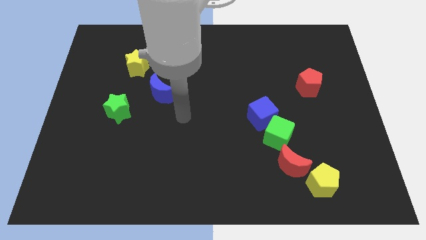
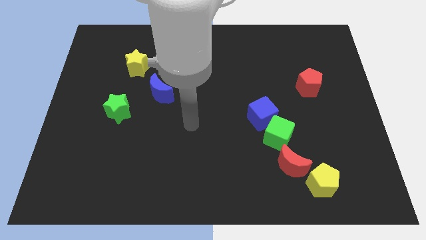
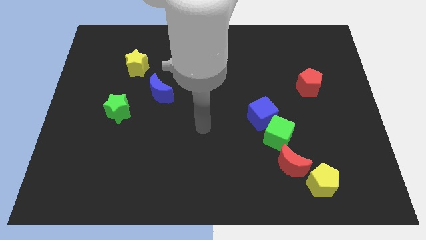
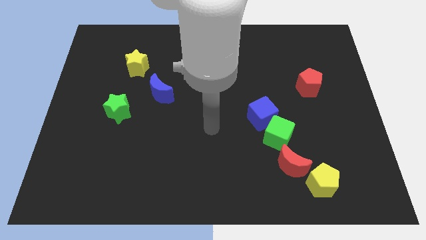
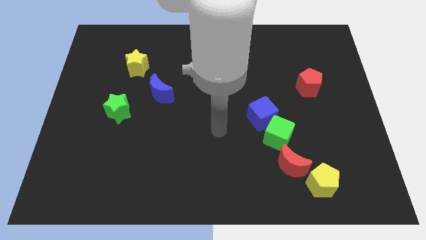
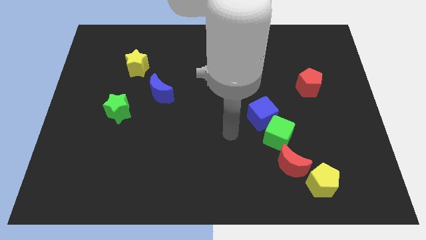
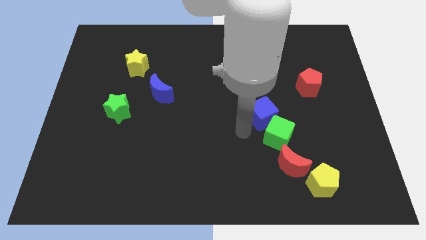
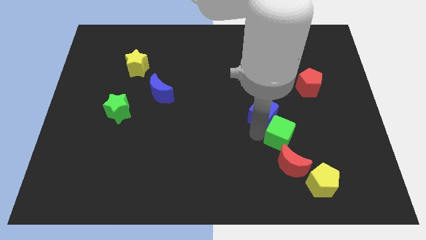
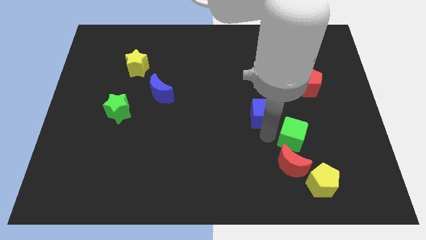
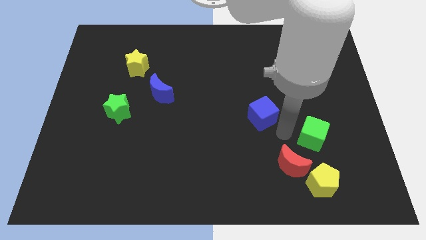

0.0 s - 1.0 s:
separate the blue cube from the green cube

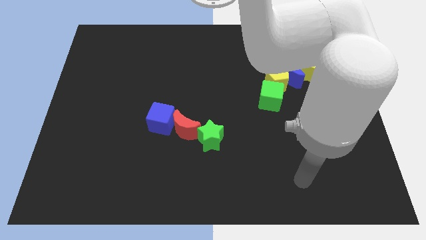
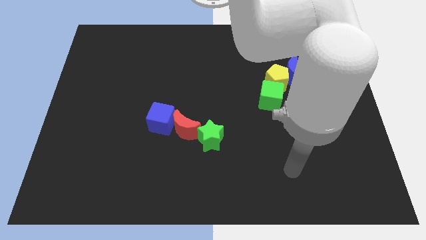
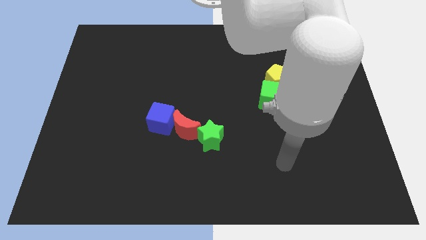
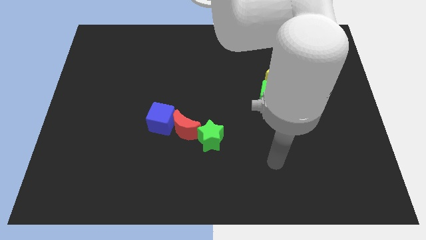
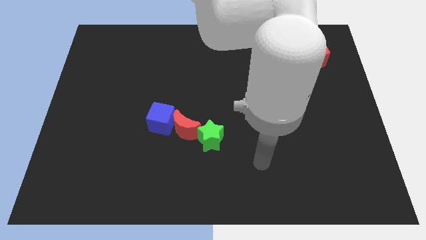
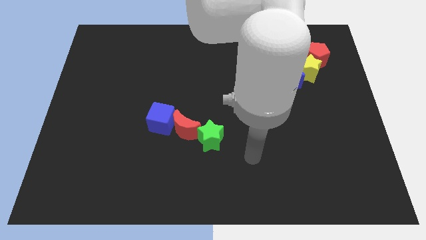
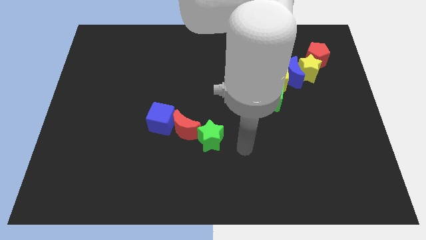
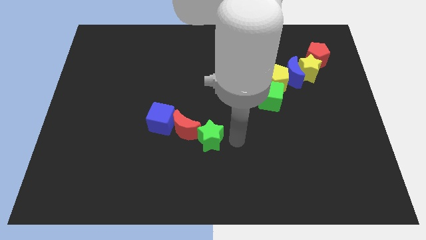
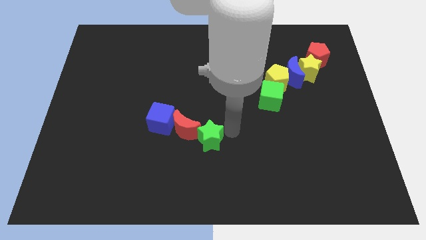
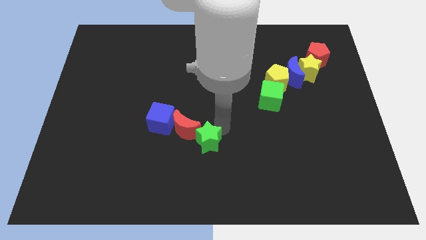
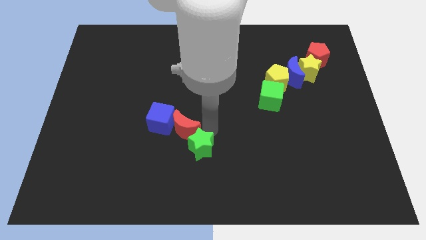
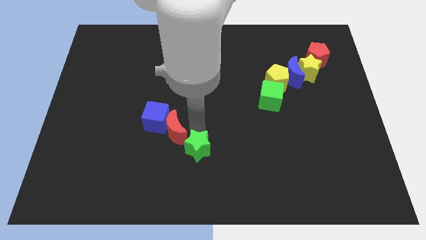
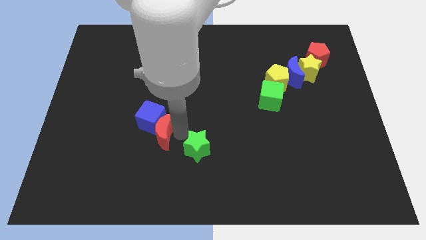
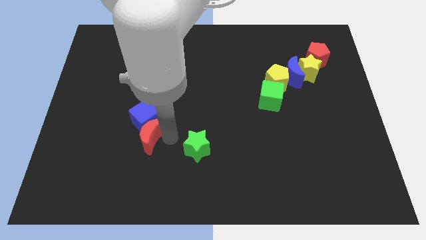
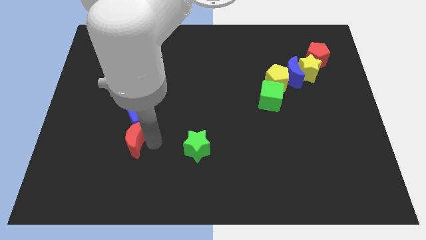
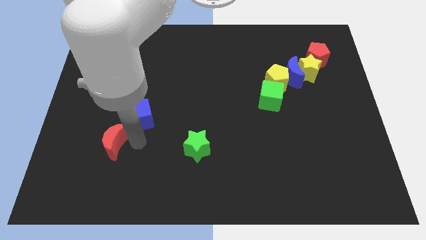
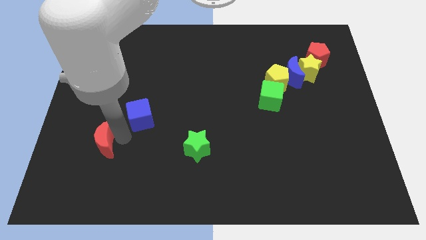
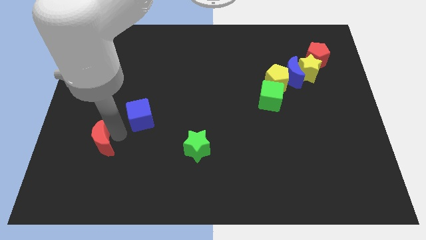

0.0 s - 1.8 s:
move the blue cube away from the red moon

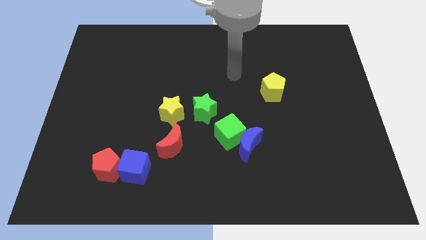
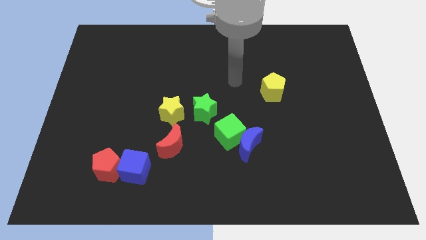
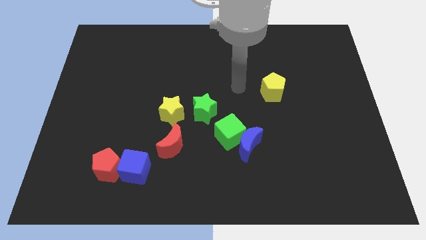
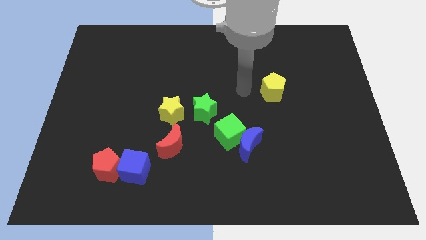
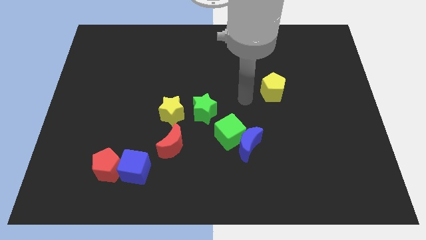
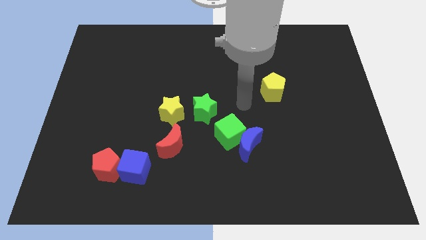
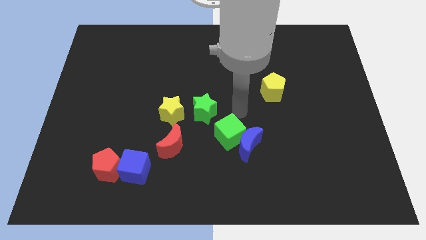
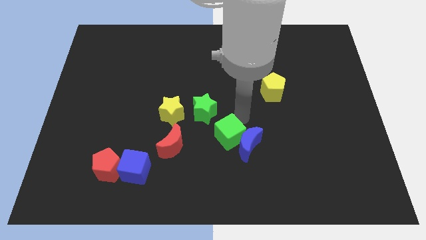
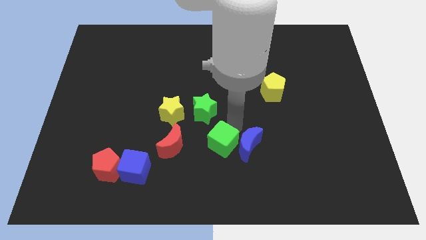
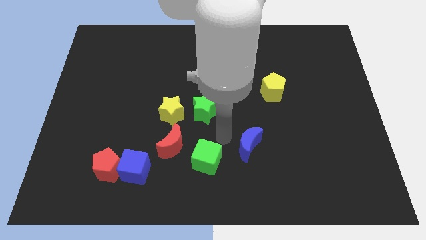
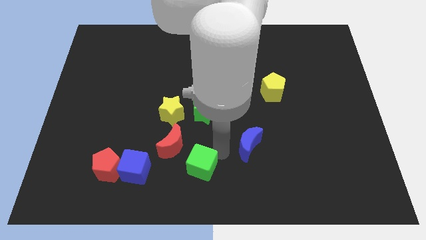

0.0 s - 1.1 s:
move the blue moon away from the green cube

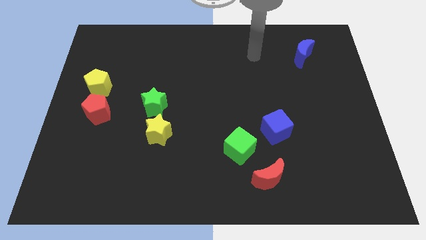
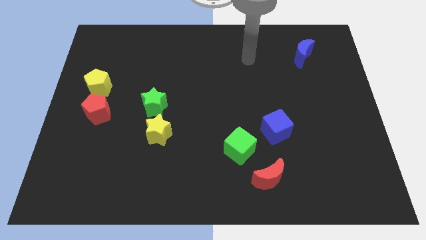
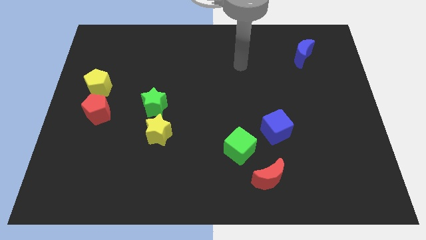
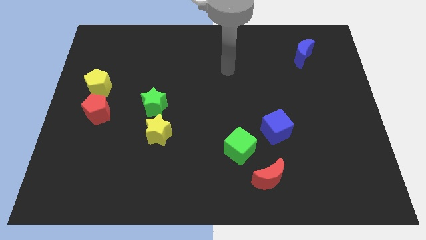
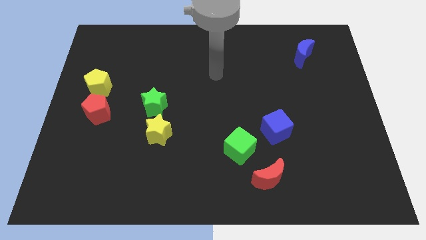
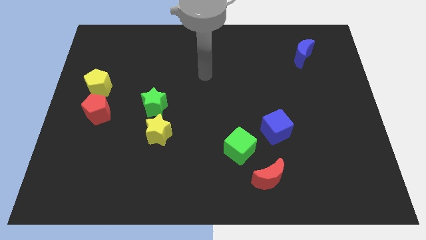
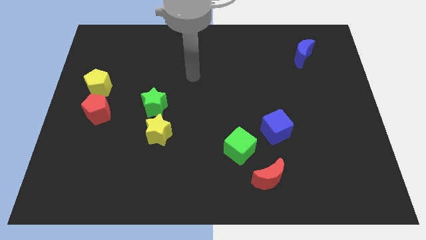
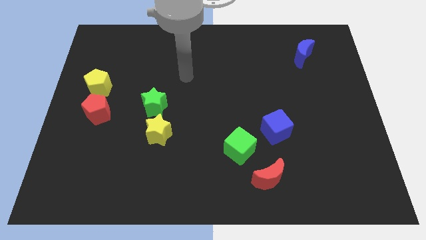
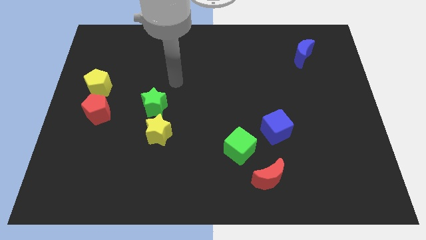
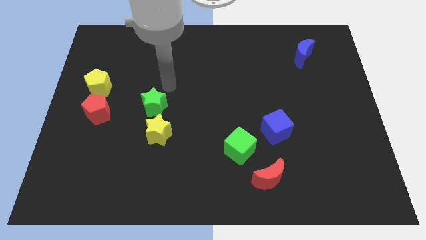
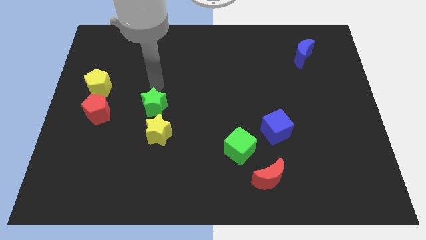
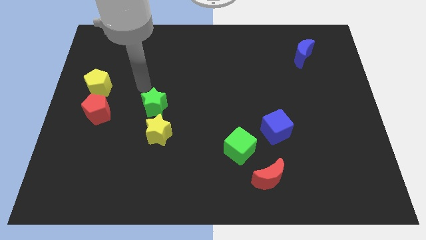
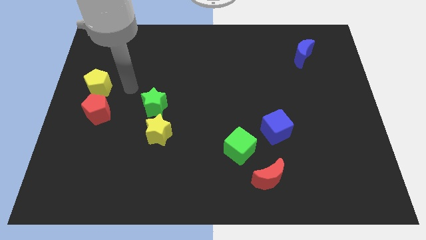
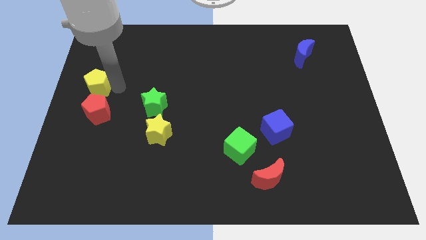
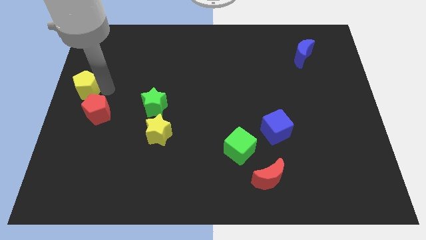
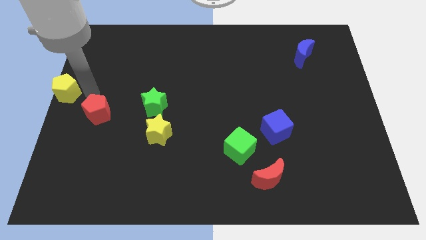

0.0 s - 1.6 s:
separate the red pentagon from the yellow pentagon

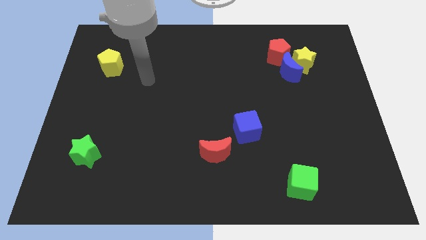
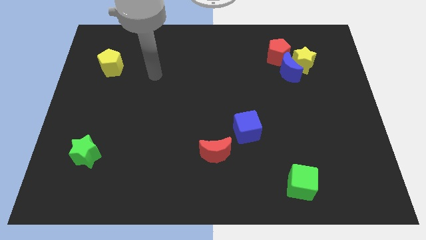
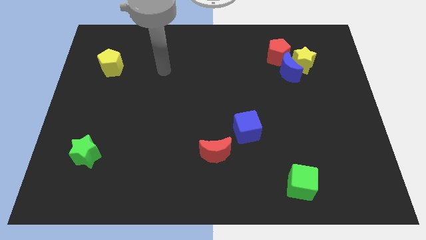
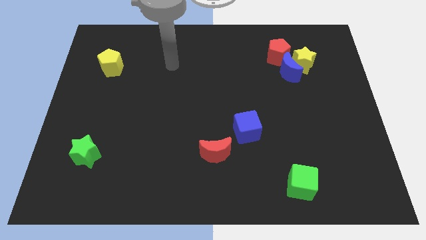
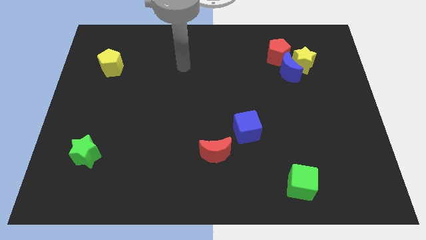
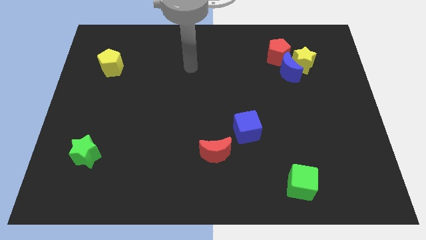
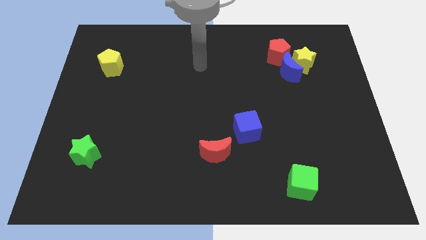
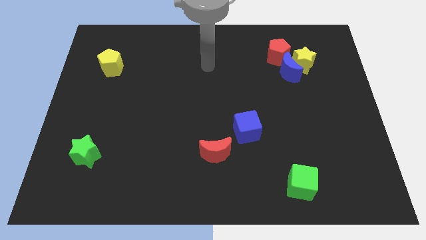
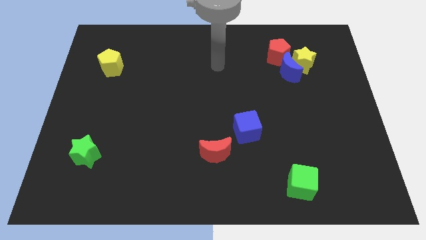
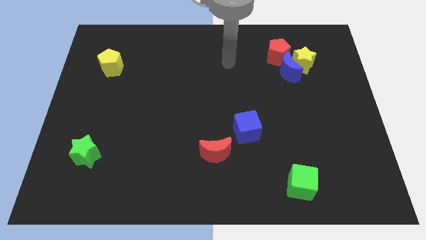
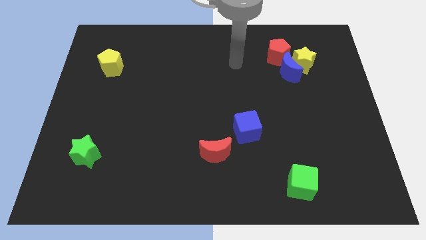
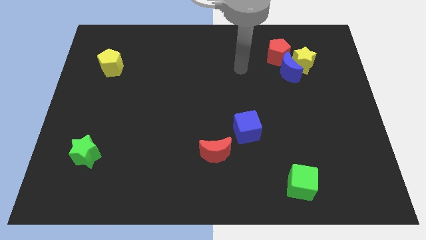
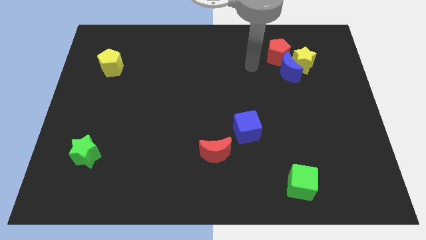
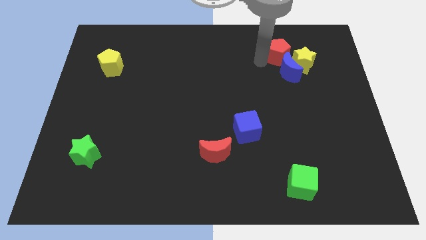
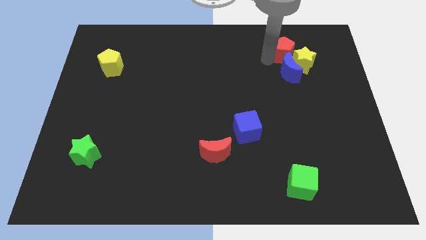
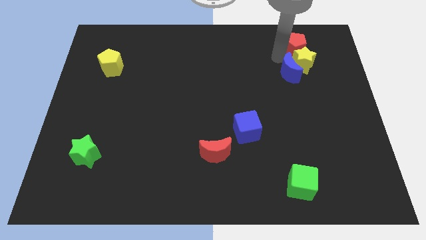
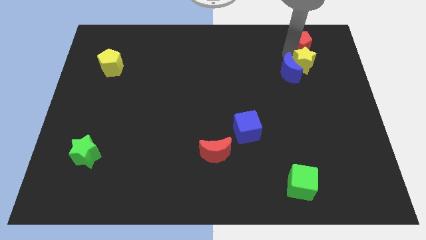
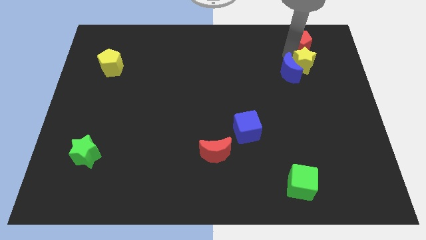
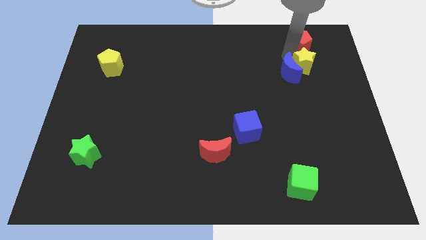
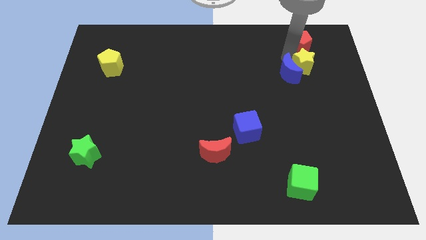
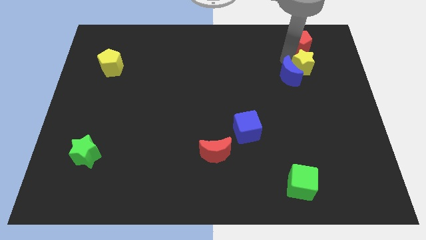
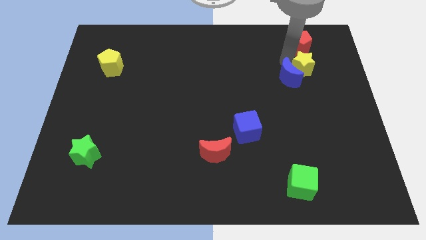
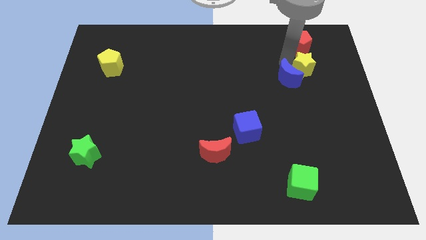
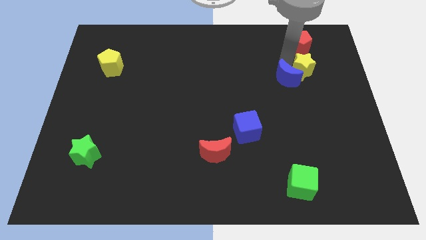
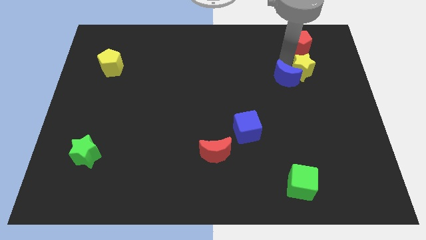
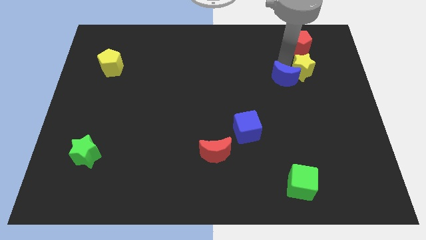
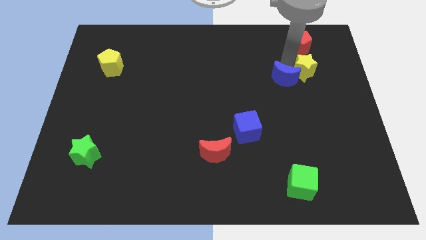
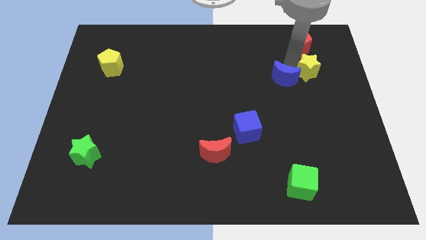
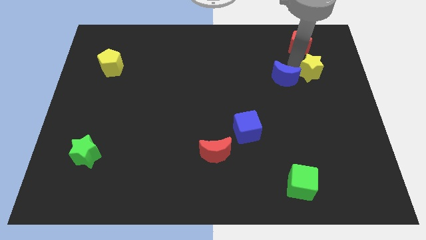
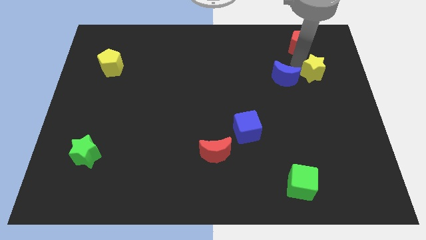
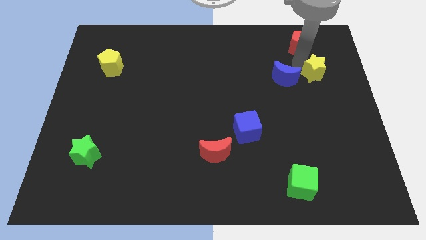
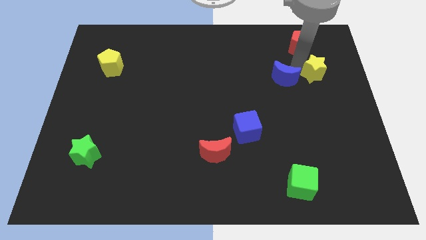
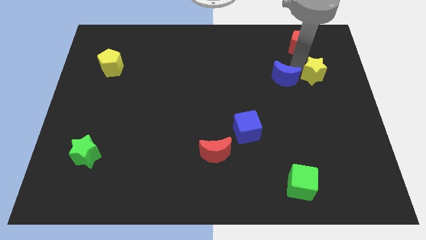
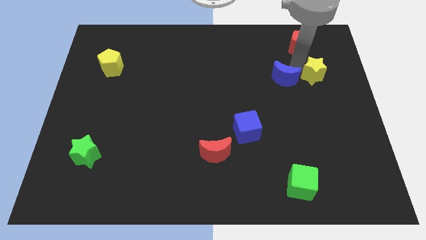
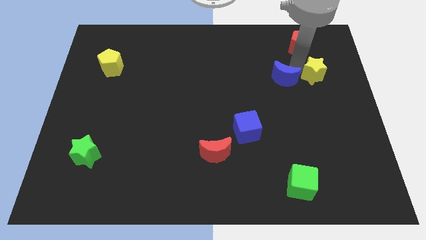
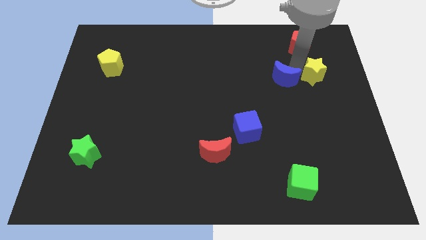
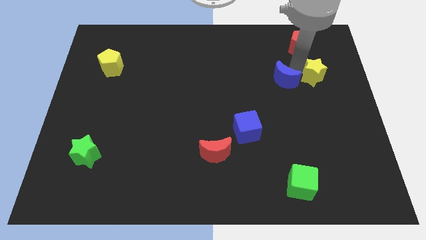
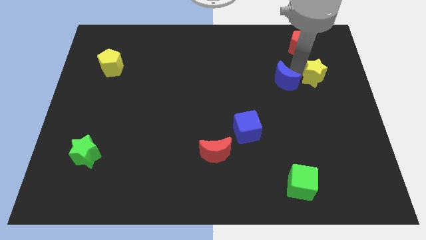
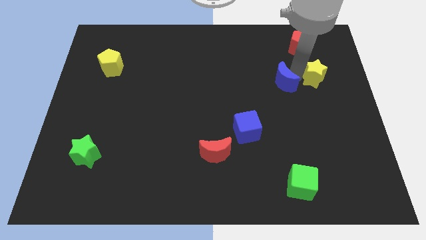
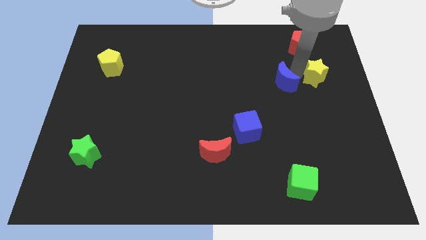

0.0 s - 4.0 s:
pull the blue moon apart from the yellow star and red pentagon
